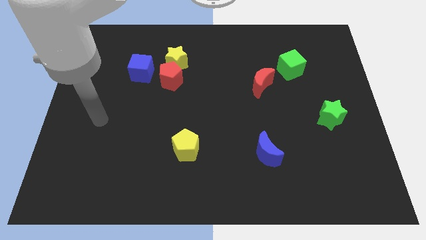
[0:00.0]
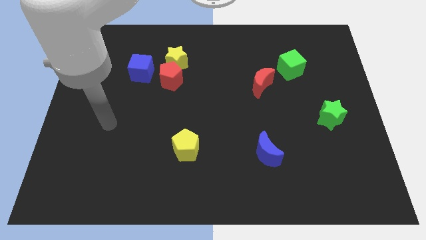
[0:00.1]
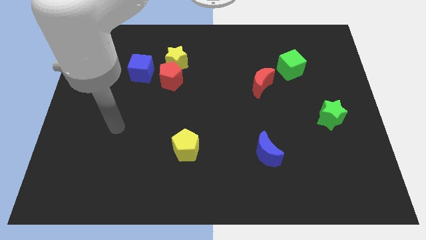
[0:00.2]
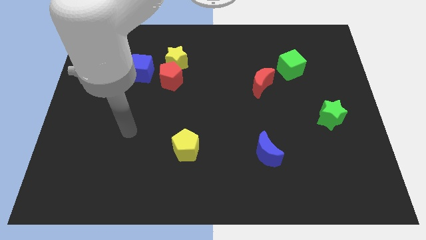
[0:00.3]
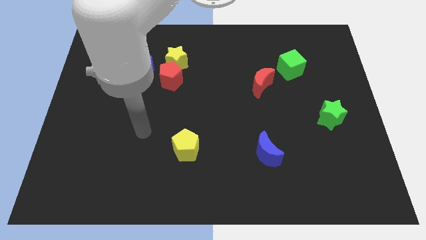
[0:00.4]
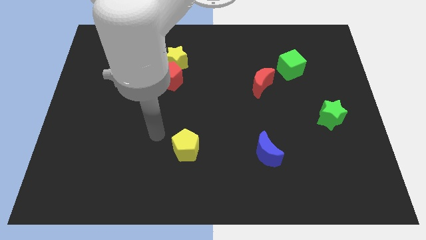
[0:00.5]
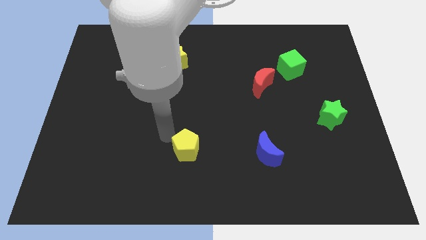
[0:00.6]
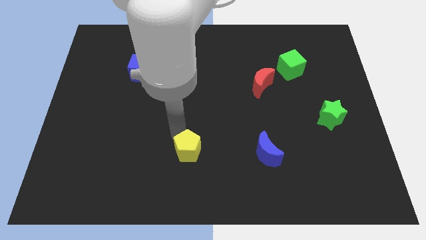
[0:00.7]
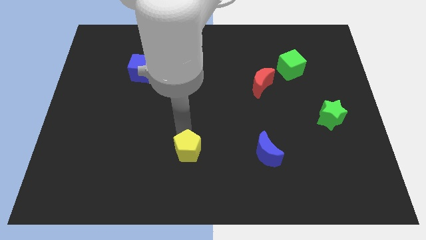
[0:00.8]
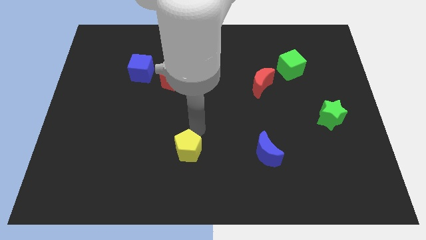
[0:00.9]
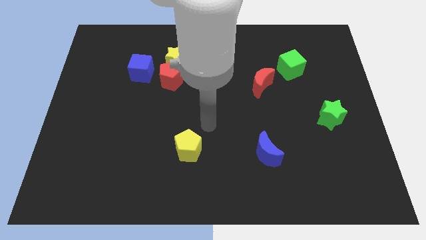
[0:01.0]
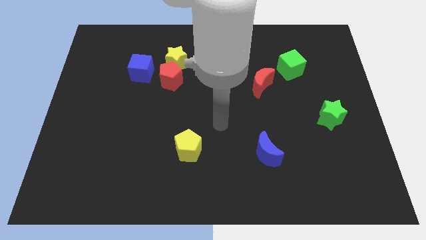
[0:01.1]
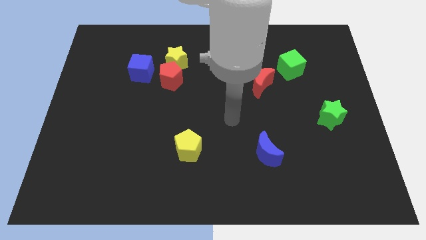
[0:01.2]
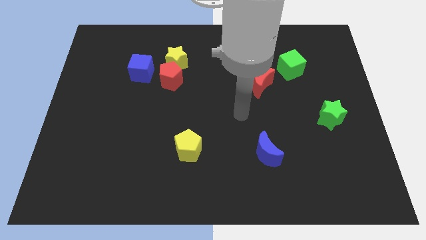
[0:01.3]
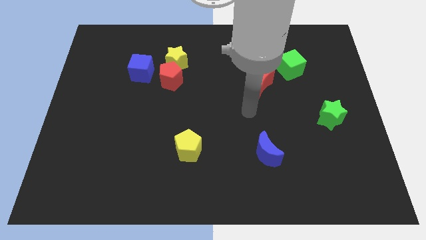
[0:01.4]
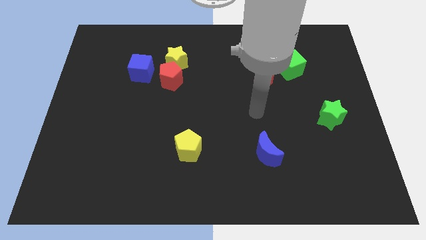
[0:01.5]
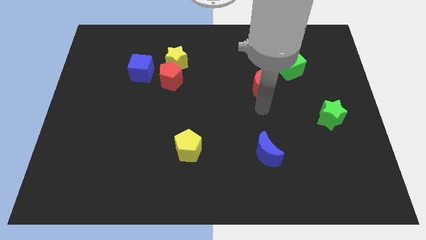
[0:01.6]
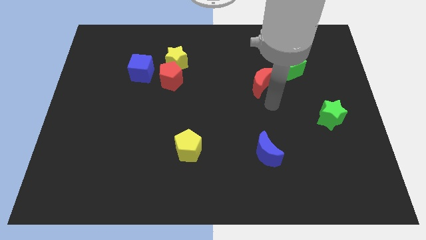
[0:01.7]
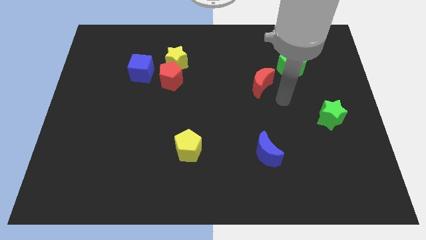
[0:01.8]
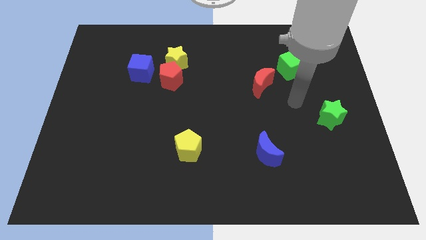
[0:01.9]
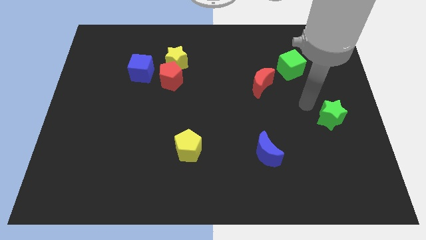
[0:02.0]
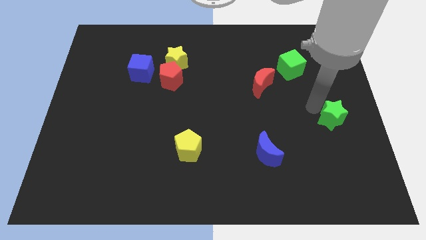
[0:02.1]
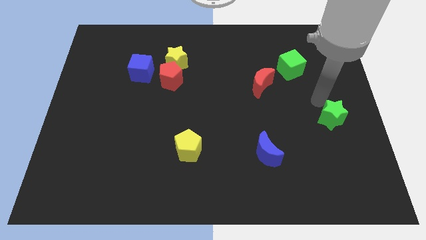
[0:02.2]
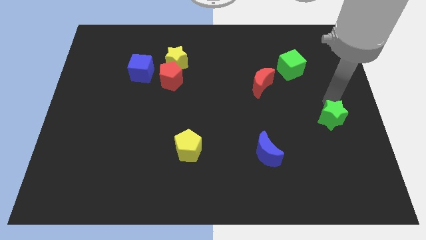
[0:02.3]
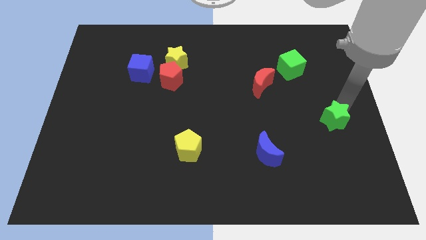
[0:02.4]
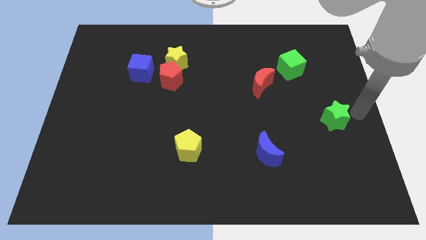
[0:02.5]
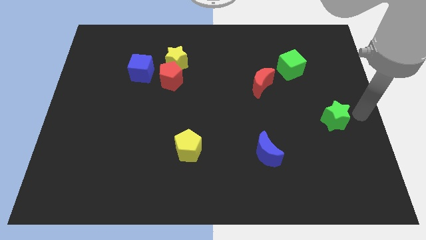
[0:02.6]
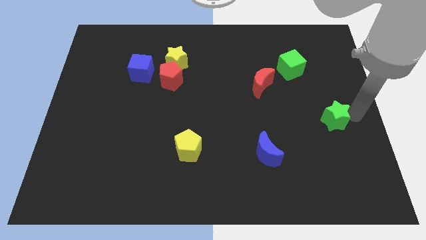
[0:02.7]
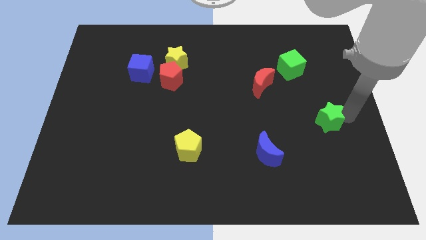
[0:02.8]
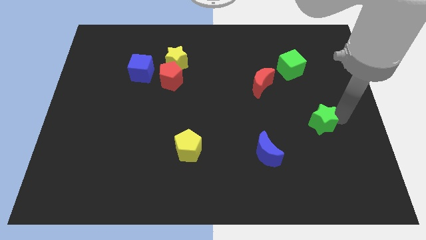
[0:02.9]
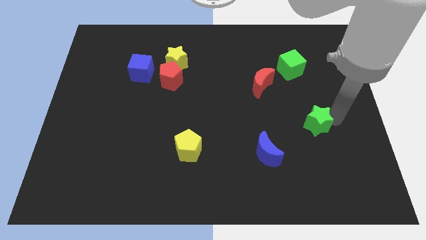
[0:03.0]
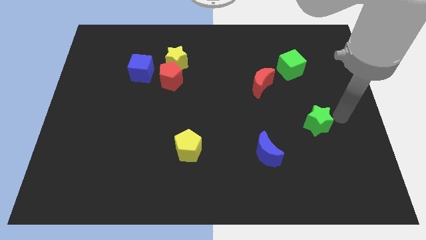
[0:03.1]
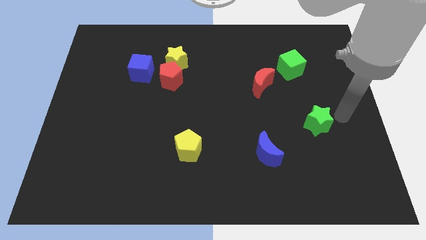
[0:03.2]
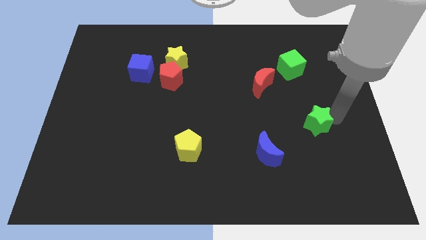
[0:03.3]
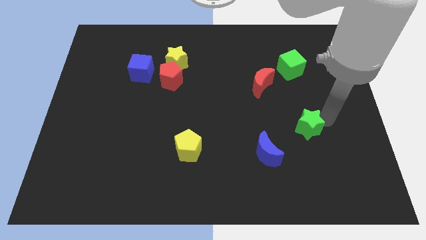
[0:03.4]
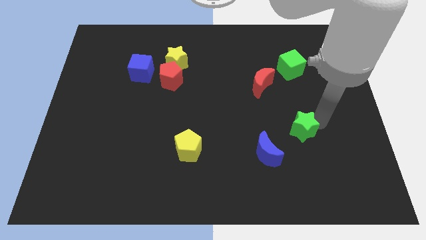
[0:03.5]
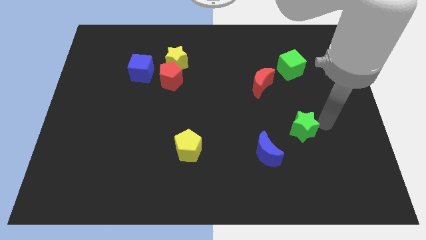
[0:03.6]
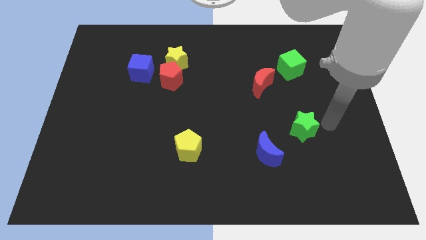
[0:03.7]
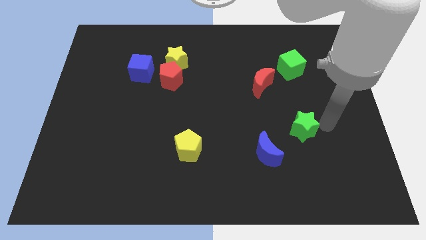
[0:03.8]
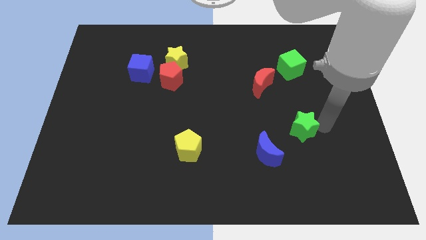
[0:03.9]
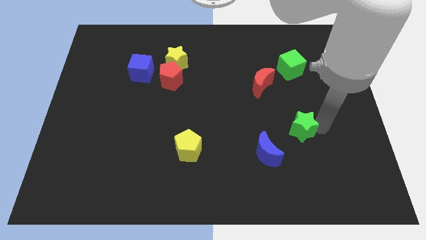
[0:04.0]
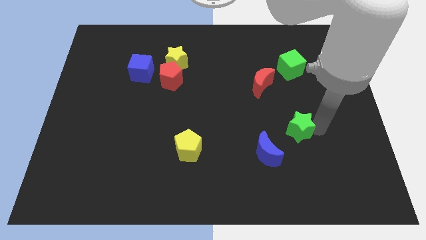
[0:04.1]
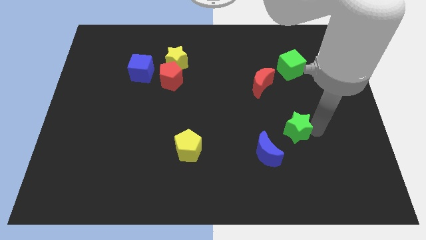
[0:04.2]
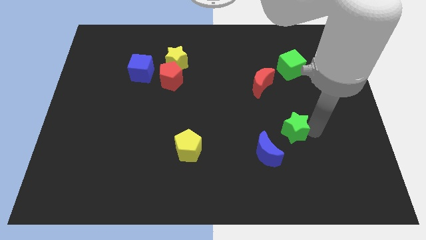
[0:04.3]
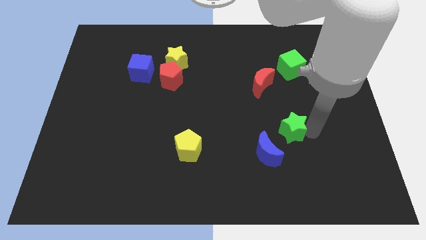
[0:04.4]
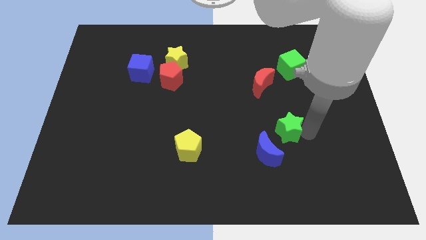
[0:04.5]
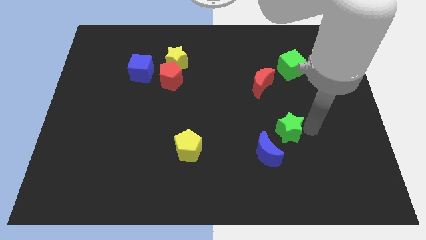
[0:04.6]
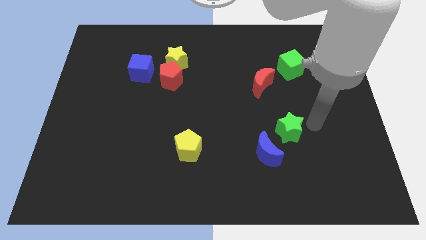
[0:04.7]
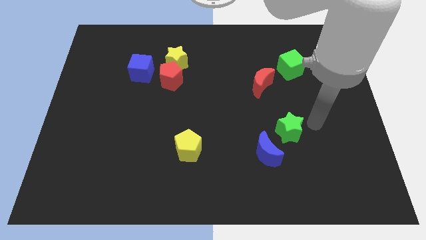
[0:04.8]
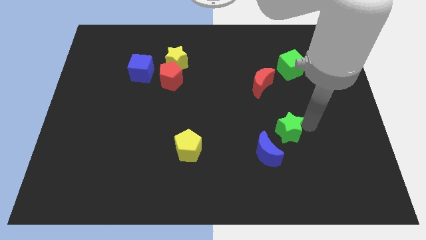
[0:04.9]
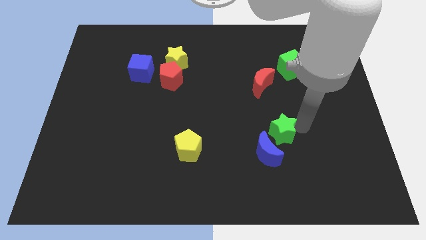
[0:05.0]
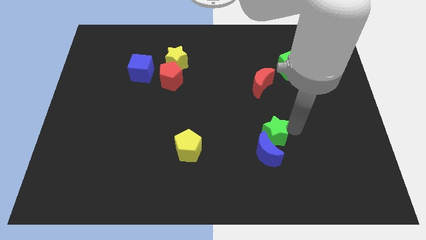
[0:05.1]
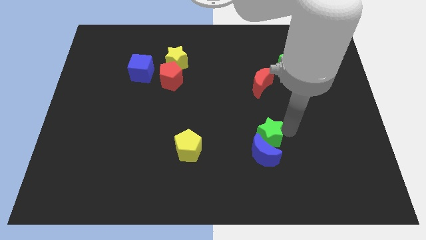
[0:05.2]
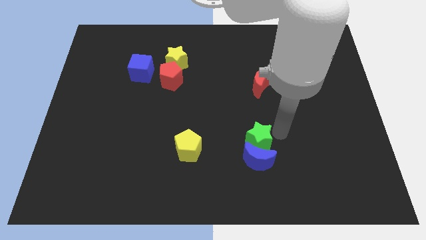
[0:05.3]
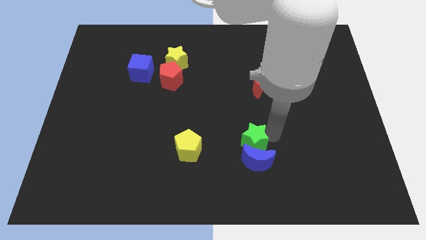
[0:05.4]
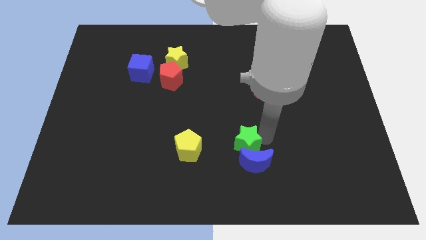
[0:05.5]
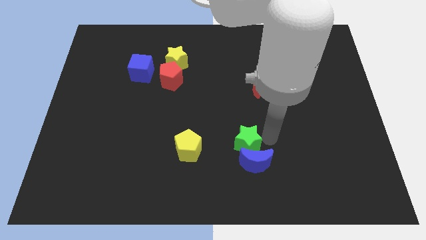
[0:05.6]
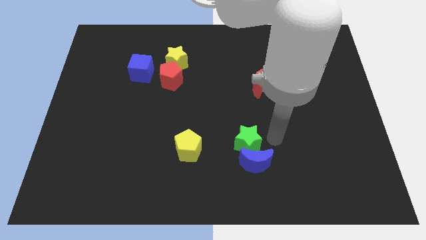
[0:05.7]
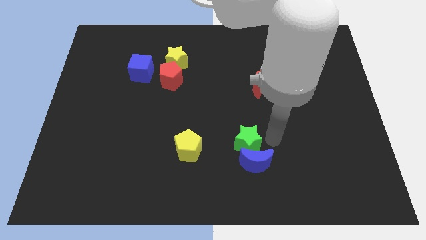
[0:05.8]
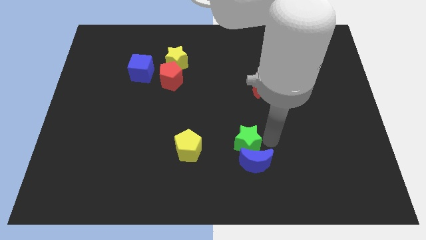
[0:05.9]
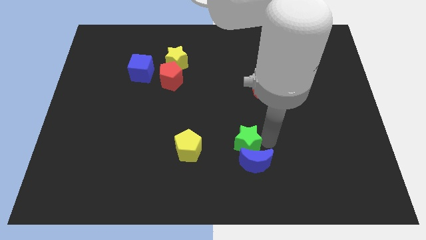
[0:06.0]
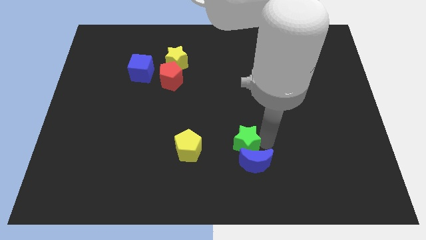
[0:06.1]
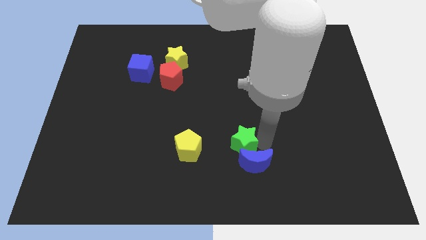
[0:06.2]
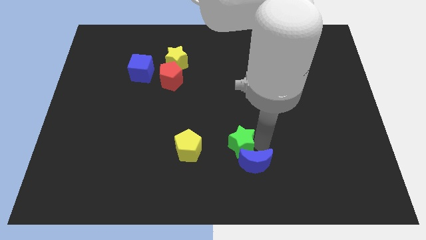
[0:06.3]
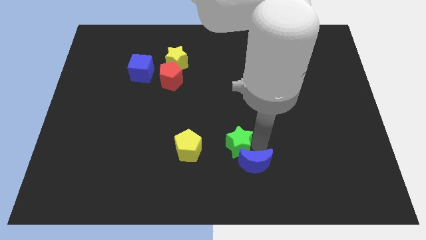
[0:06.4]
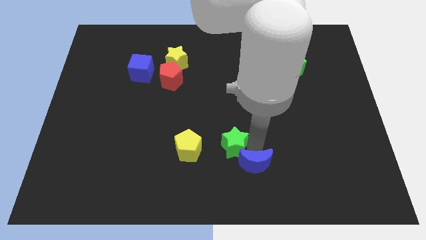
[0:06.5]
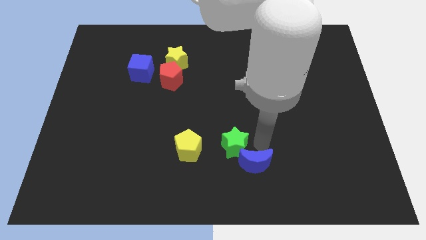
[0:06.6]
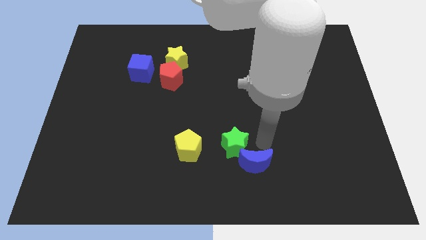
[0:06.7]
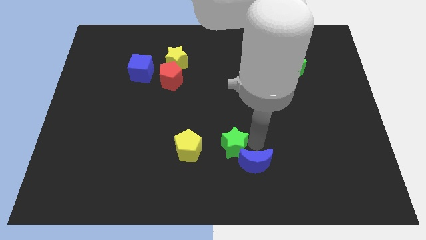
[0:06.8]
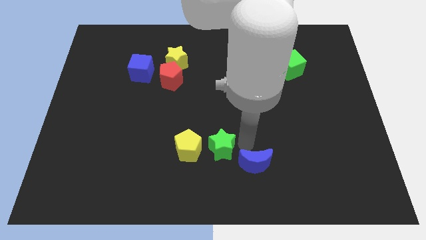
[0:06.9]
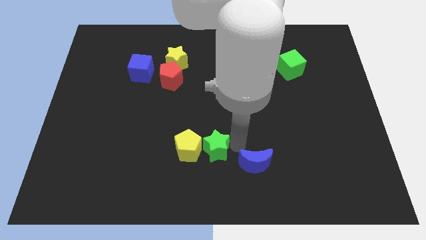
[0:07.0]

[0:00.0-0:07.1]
move the green star towards the yellow pentagon

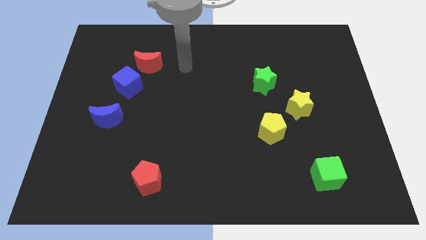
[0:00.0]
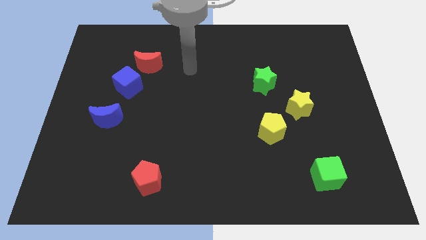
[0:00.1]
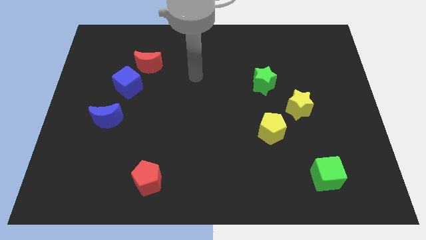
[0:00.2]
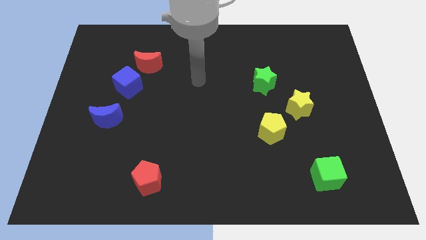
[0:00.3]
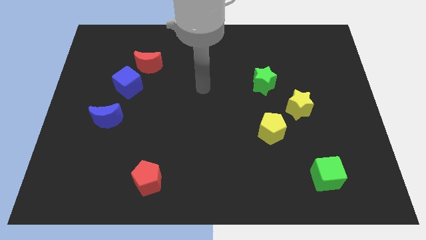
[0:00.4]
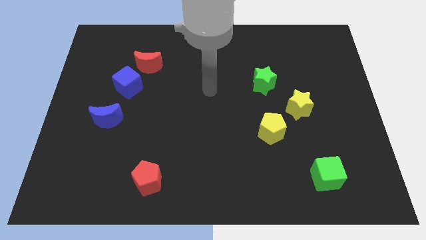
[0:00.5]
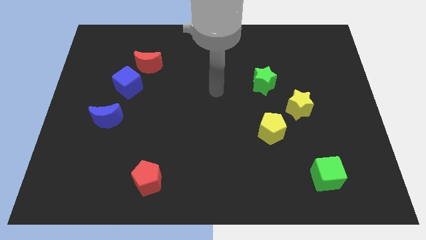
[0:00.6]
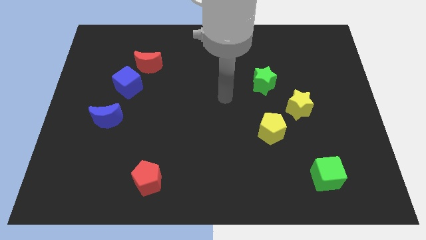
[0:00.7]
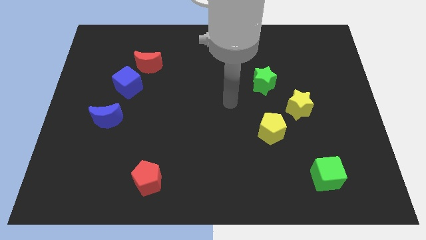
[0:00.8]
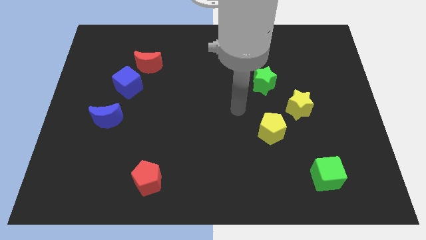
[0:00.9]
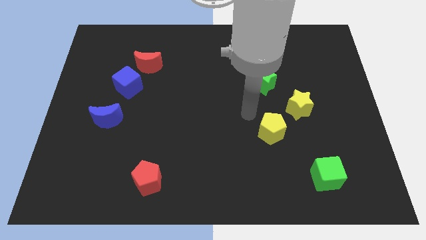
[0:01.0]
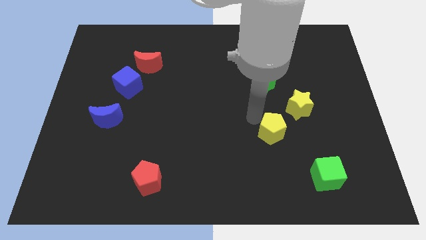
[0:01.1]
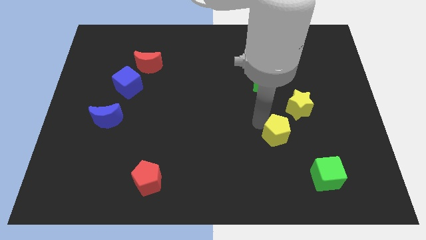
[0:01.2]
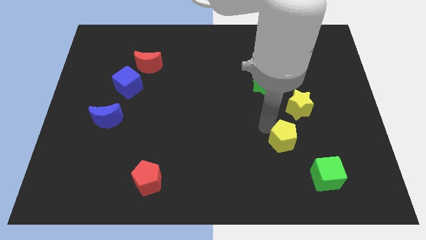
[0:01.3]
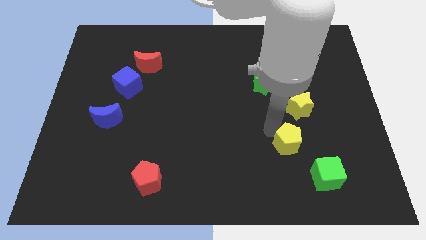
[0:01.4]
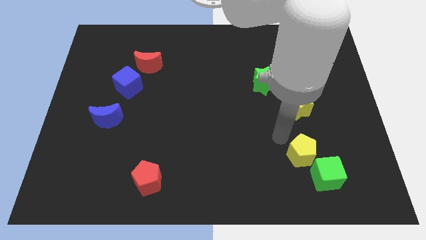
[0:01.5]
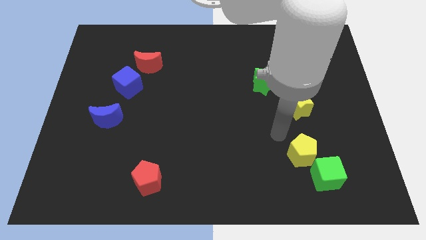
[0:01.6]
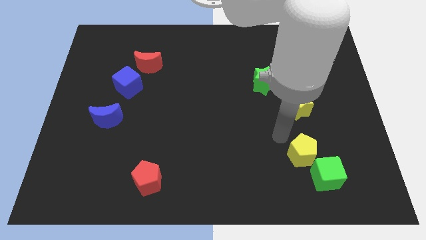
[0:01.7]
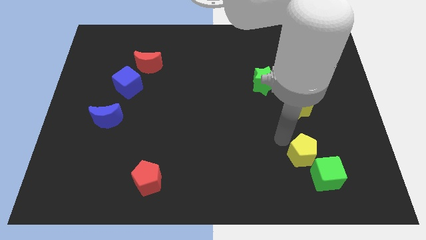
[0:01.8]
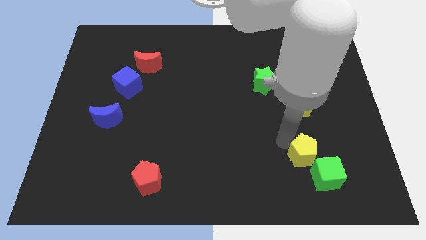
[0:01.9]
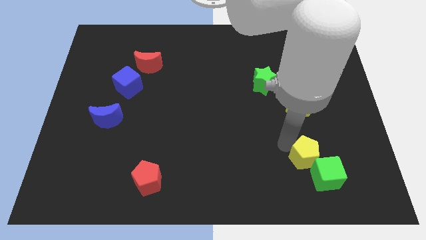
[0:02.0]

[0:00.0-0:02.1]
slide the yellow pentagon to the green cube
